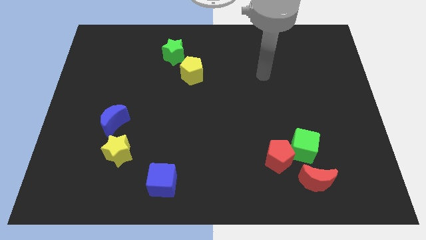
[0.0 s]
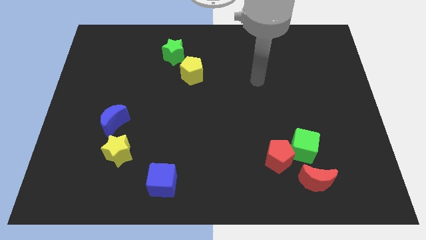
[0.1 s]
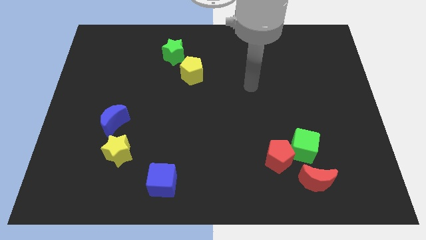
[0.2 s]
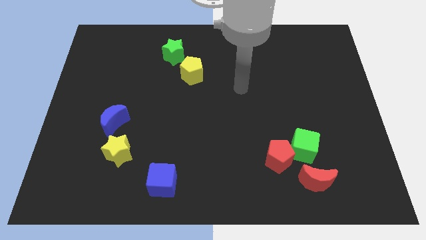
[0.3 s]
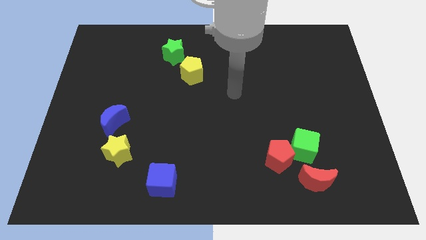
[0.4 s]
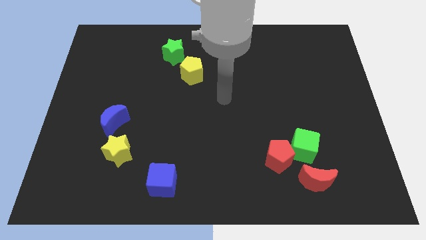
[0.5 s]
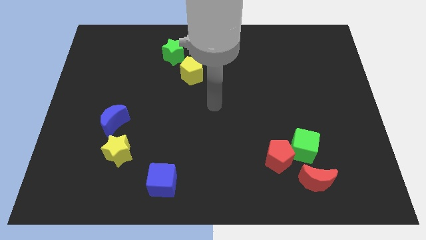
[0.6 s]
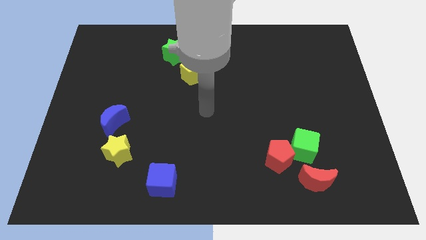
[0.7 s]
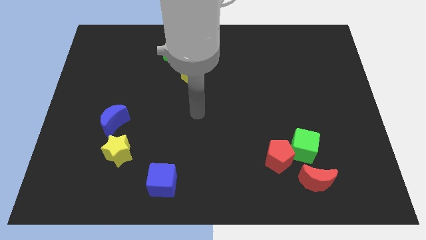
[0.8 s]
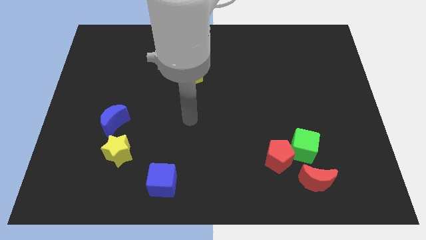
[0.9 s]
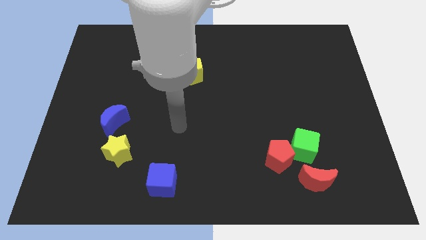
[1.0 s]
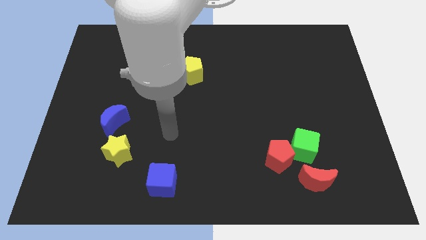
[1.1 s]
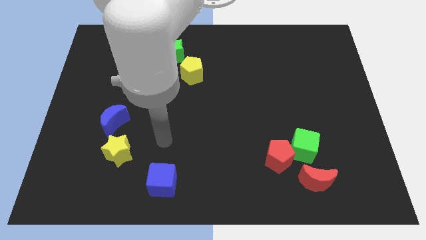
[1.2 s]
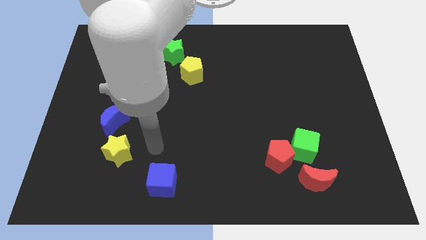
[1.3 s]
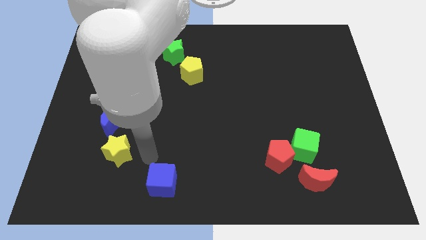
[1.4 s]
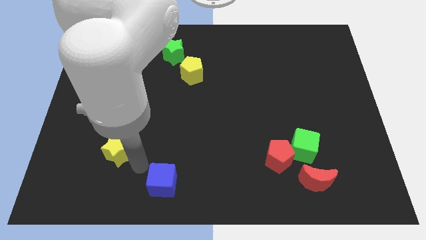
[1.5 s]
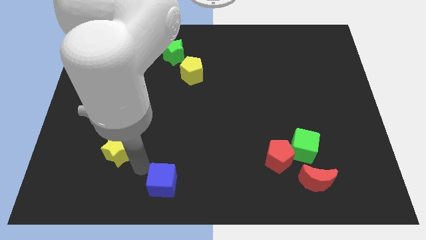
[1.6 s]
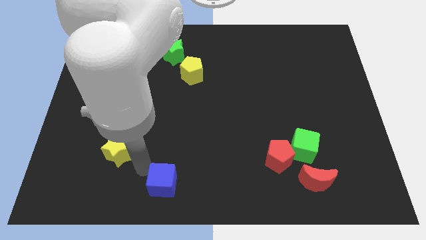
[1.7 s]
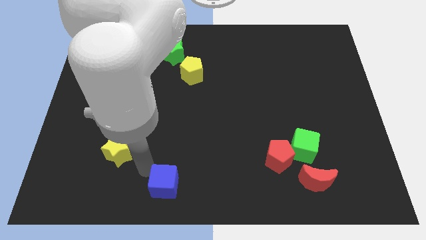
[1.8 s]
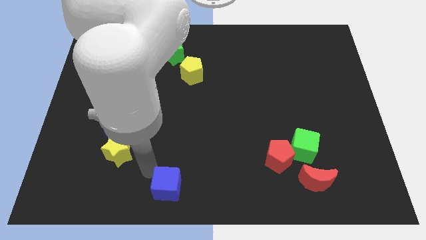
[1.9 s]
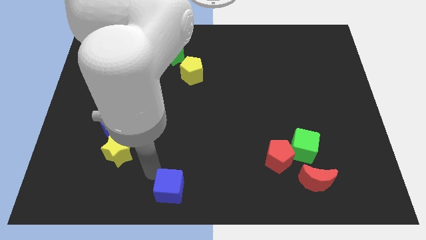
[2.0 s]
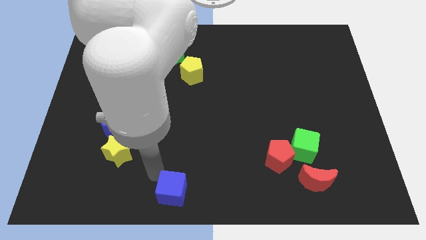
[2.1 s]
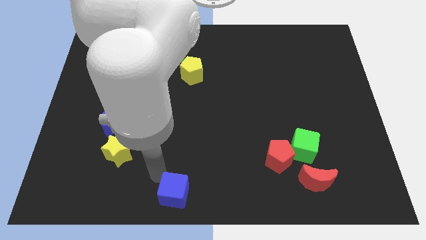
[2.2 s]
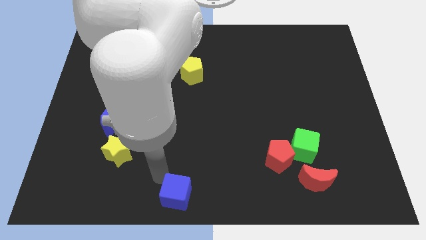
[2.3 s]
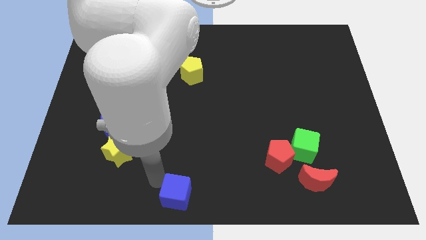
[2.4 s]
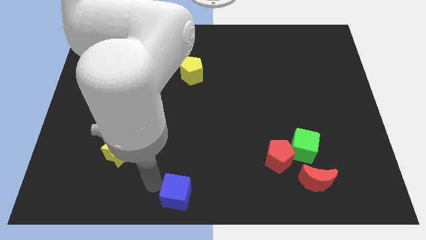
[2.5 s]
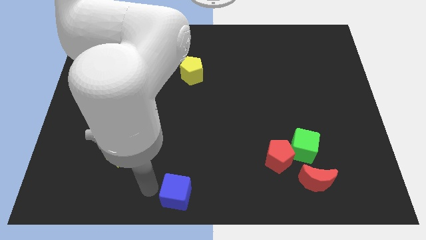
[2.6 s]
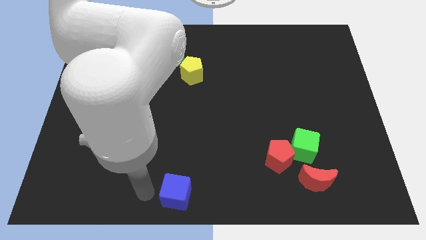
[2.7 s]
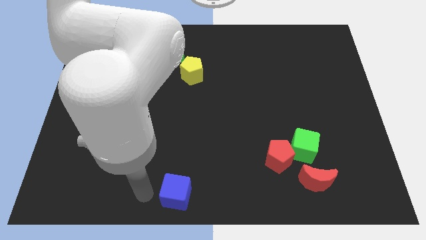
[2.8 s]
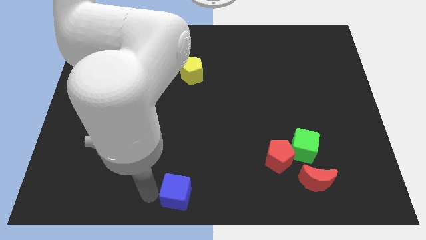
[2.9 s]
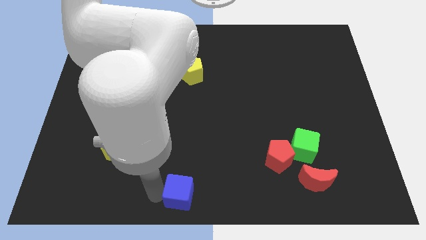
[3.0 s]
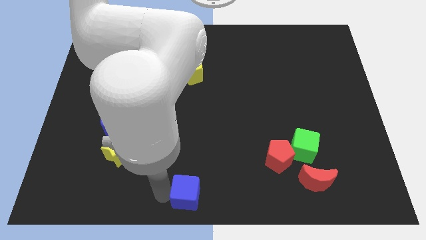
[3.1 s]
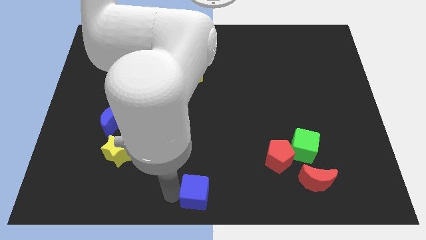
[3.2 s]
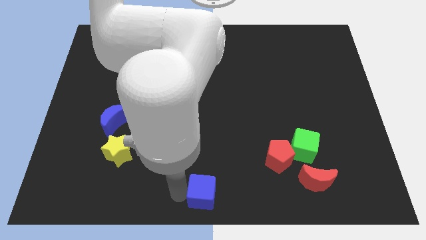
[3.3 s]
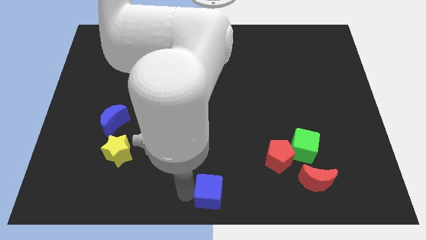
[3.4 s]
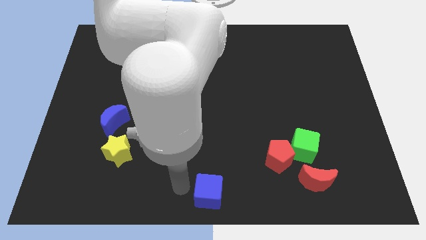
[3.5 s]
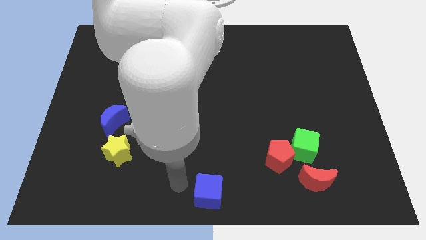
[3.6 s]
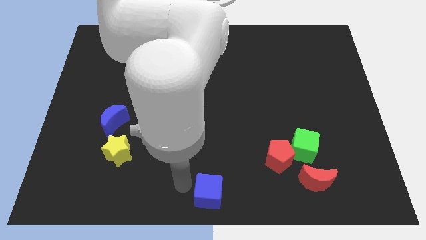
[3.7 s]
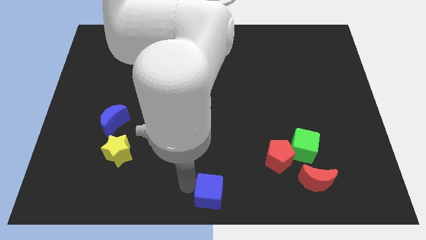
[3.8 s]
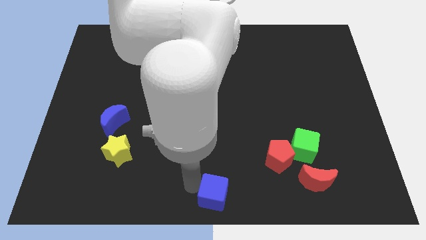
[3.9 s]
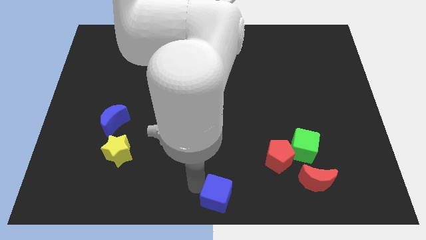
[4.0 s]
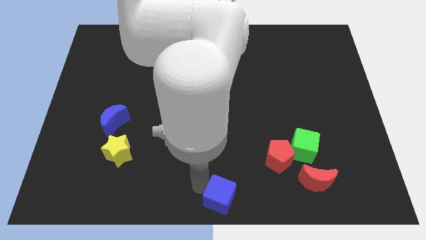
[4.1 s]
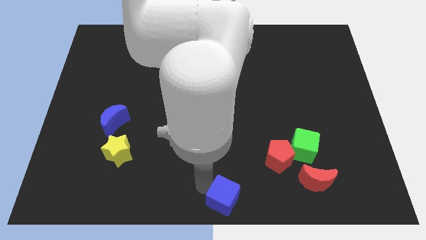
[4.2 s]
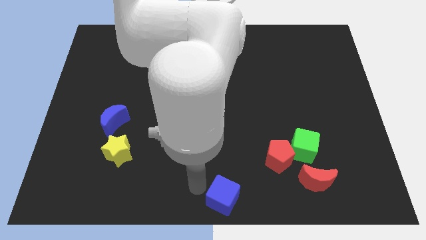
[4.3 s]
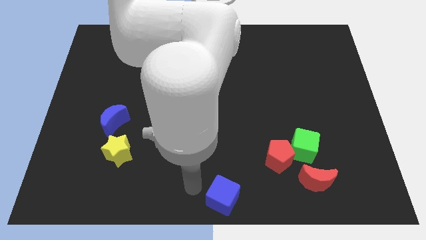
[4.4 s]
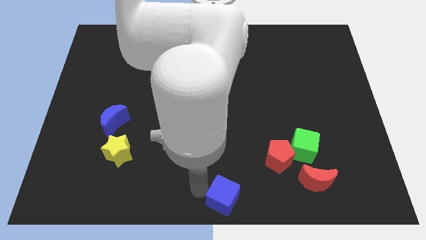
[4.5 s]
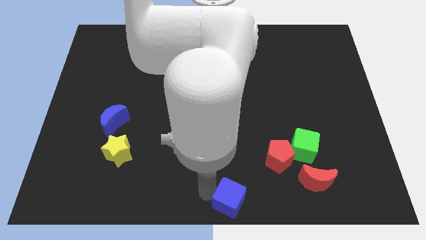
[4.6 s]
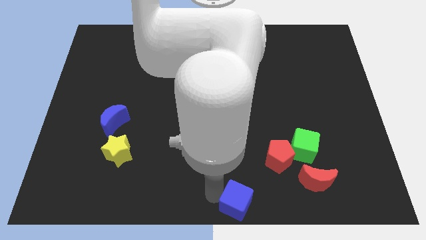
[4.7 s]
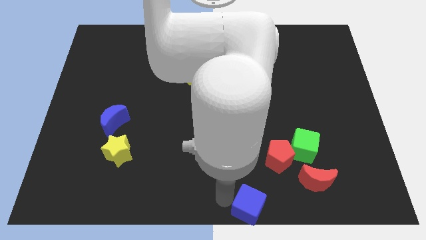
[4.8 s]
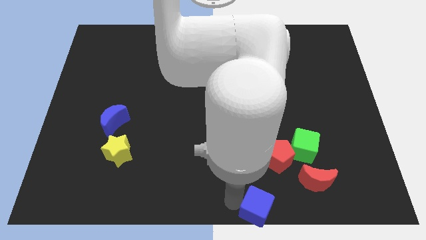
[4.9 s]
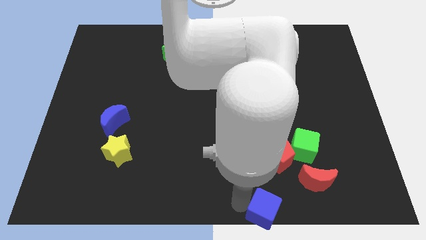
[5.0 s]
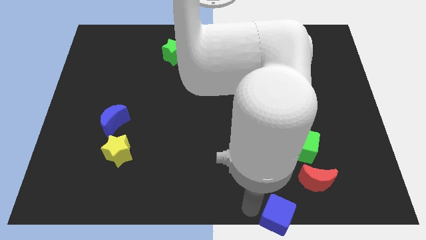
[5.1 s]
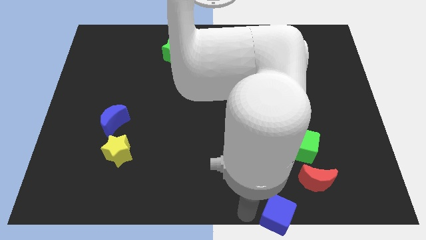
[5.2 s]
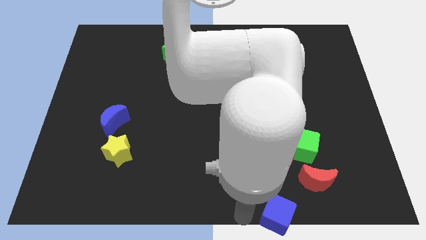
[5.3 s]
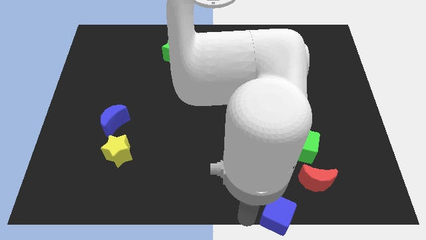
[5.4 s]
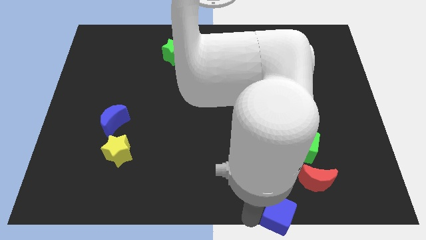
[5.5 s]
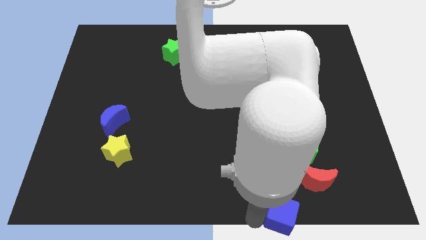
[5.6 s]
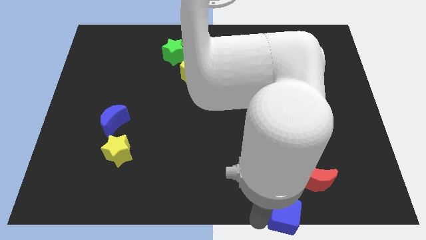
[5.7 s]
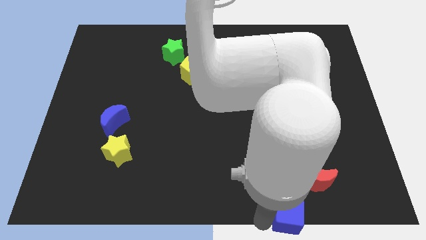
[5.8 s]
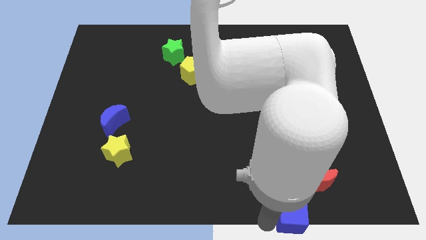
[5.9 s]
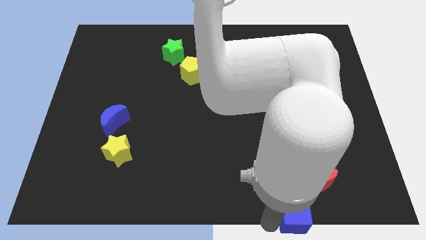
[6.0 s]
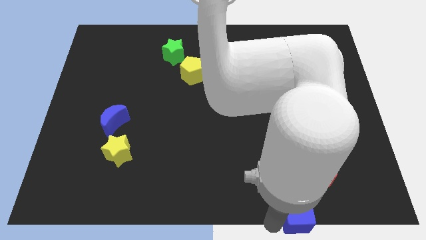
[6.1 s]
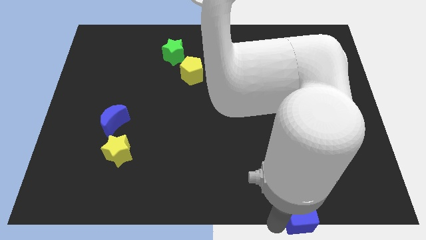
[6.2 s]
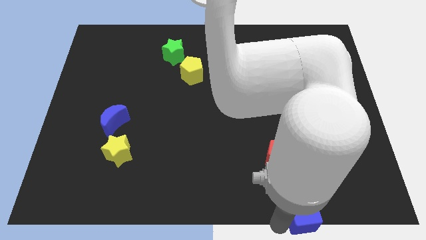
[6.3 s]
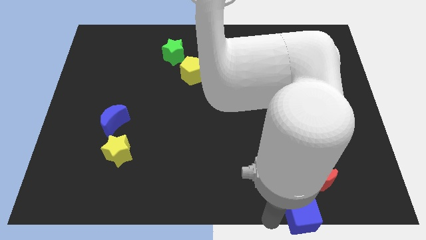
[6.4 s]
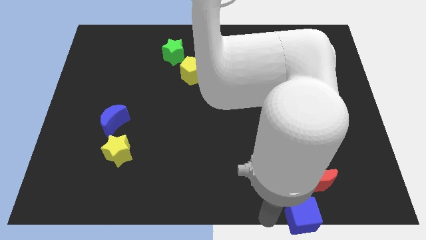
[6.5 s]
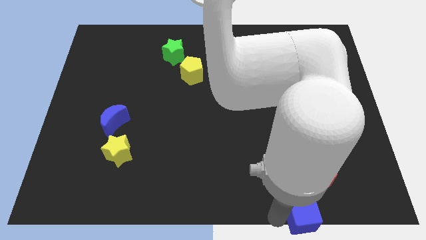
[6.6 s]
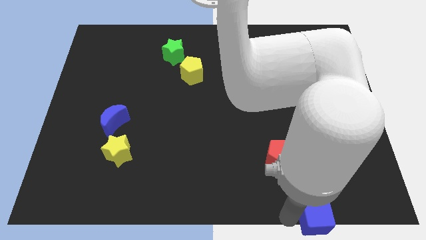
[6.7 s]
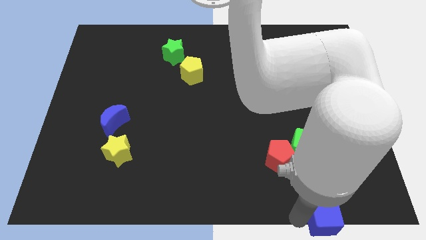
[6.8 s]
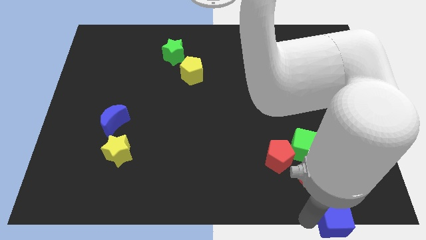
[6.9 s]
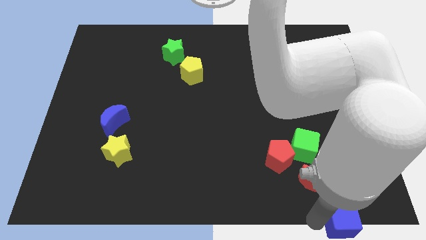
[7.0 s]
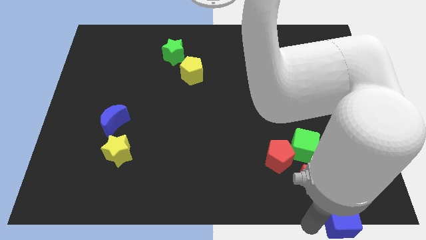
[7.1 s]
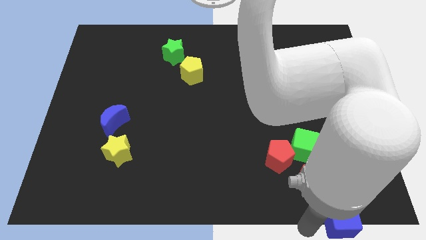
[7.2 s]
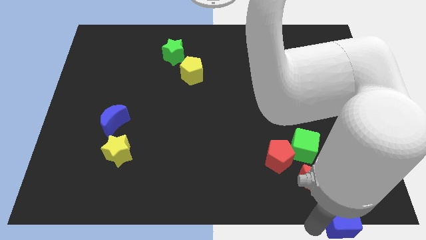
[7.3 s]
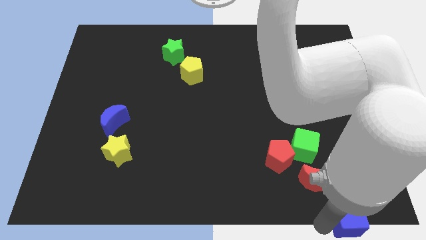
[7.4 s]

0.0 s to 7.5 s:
move the blue cube to the bottom right corner
